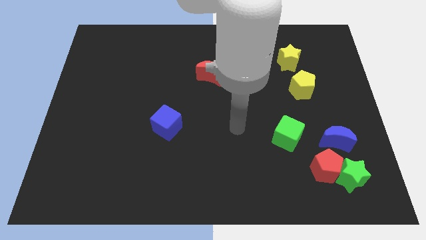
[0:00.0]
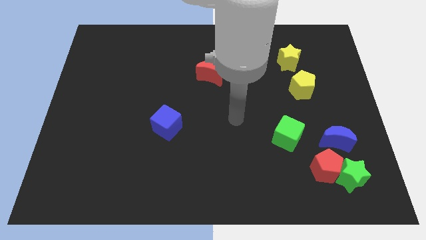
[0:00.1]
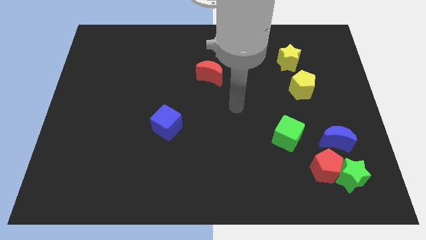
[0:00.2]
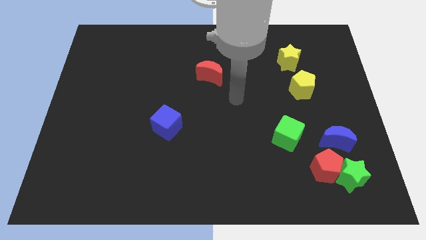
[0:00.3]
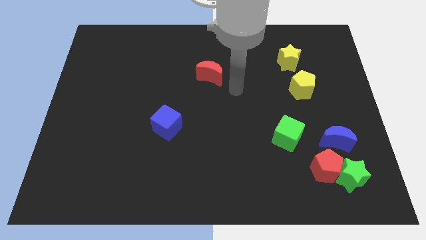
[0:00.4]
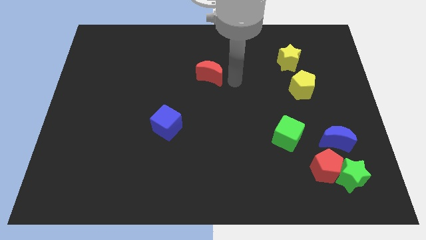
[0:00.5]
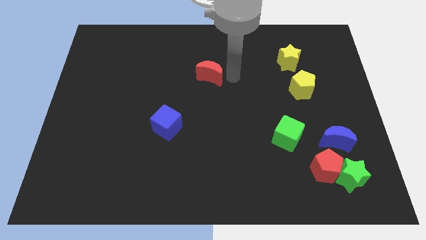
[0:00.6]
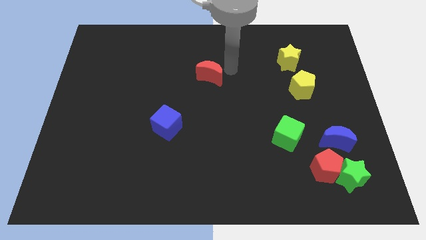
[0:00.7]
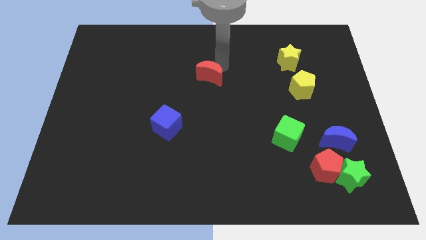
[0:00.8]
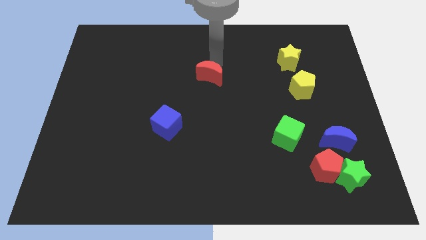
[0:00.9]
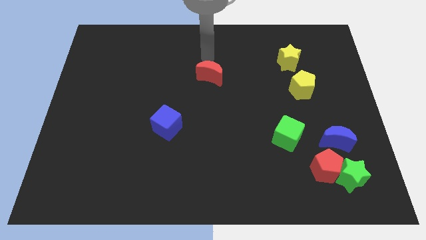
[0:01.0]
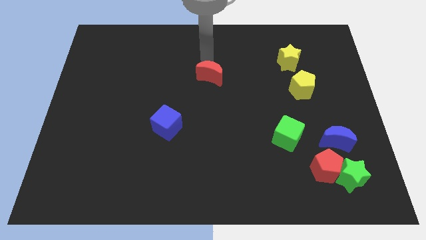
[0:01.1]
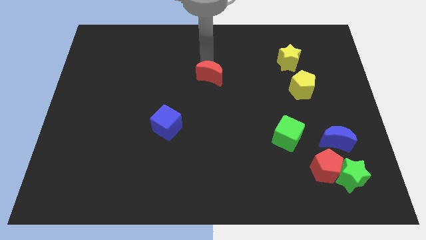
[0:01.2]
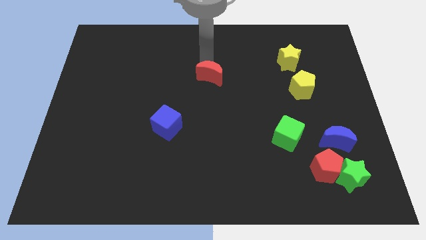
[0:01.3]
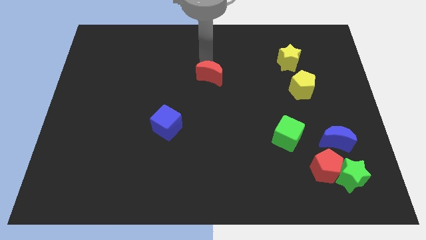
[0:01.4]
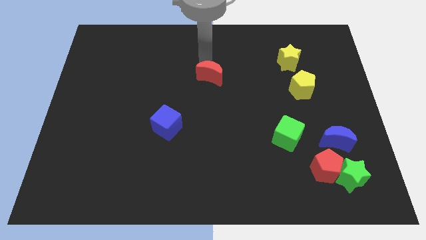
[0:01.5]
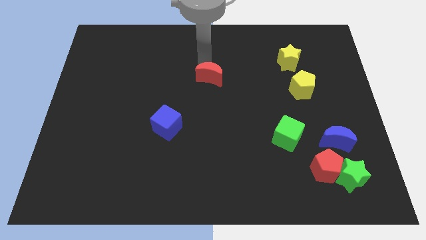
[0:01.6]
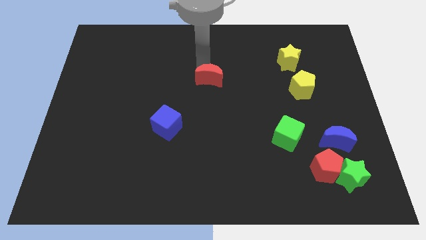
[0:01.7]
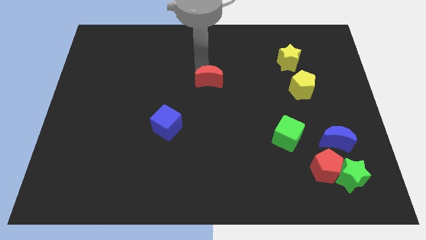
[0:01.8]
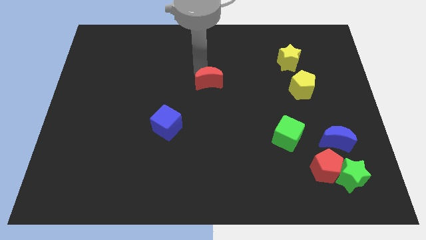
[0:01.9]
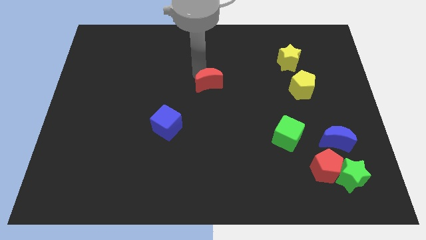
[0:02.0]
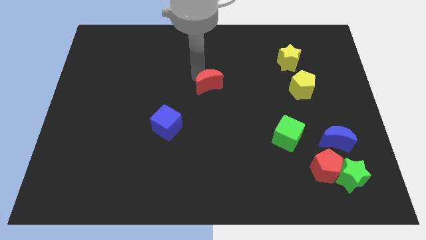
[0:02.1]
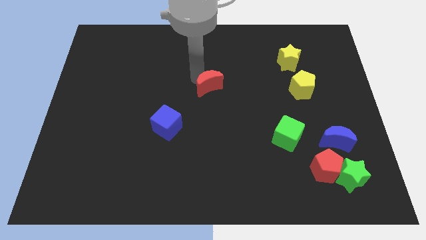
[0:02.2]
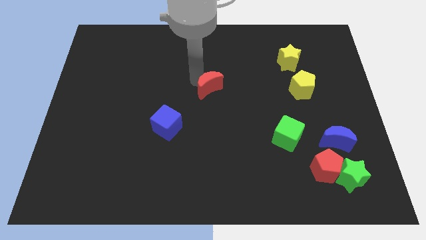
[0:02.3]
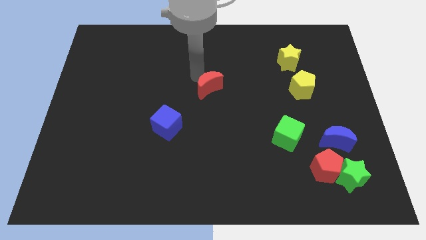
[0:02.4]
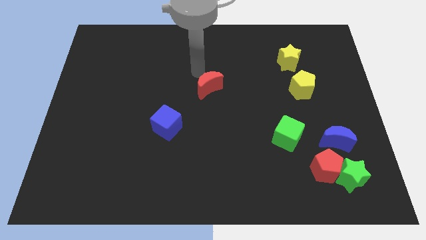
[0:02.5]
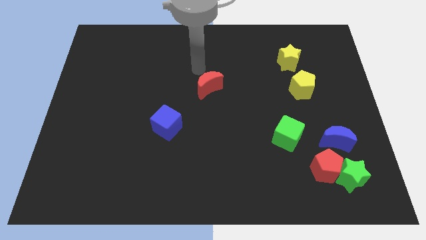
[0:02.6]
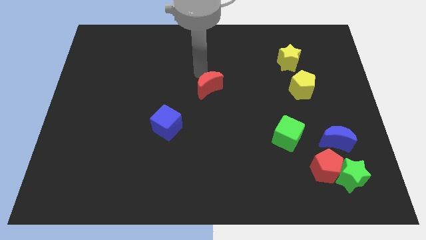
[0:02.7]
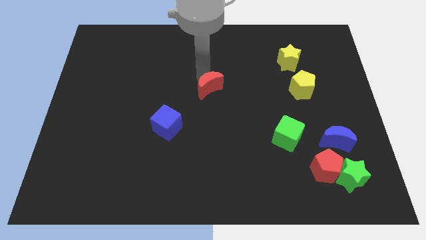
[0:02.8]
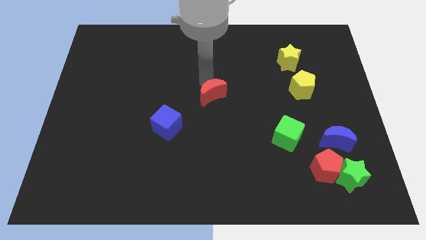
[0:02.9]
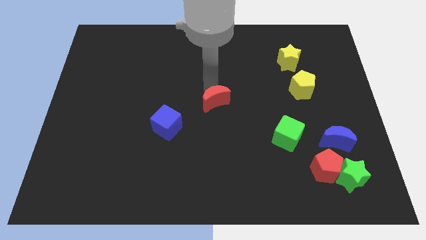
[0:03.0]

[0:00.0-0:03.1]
slightly move the red moon downwards

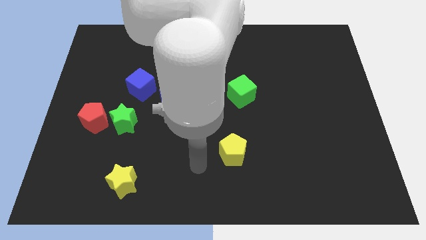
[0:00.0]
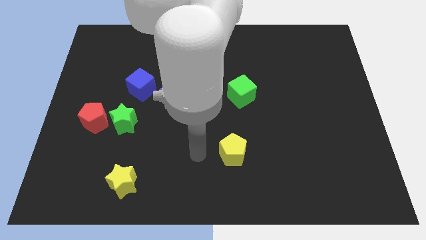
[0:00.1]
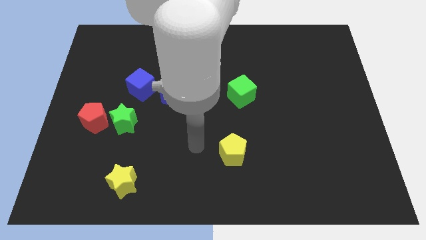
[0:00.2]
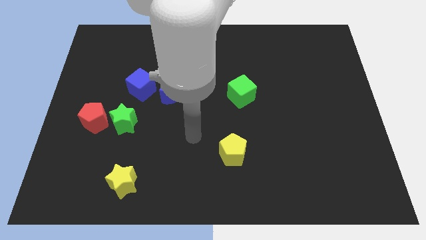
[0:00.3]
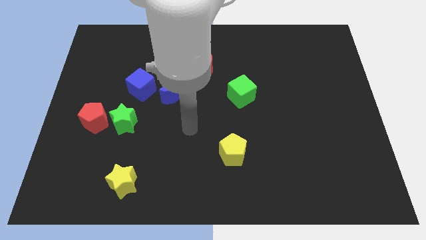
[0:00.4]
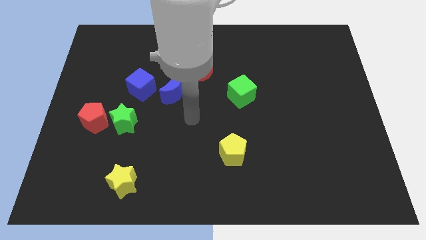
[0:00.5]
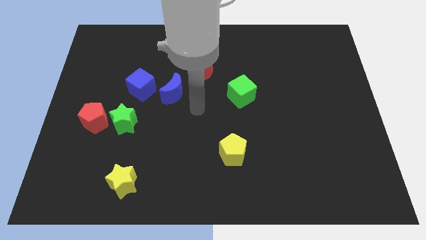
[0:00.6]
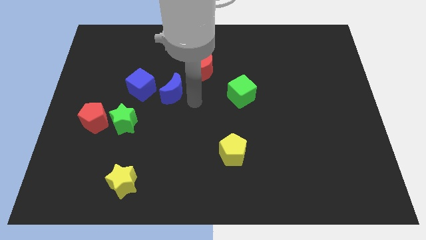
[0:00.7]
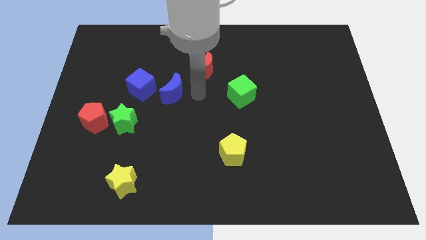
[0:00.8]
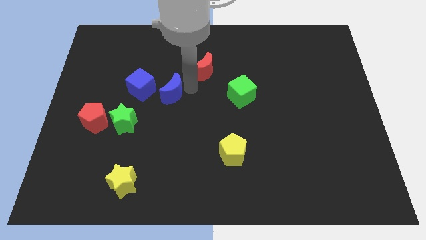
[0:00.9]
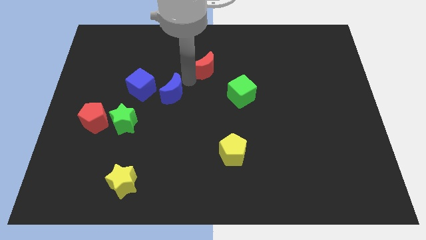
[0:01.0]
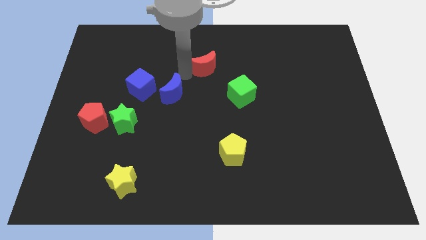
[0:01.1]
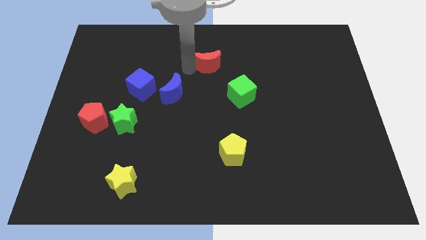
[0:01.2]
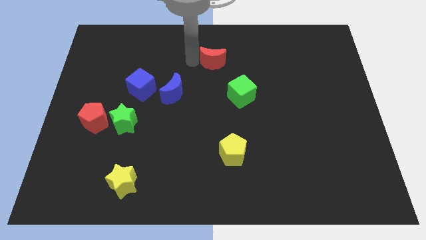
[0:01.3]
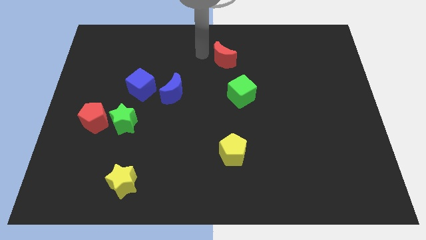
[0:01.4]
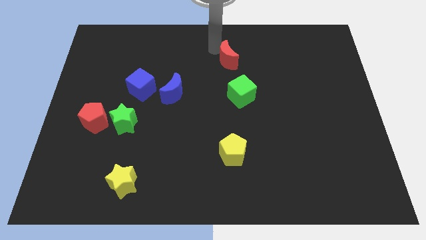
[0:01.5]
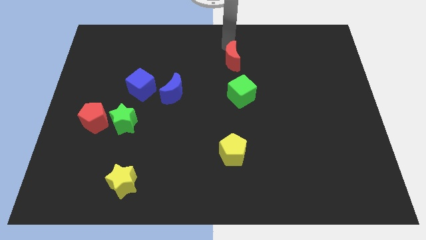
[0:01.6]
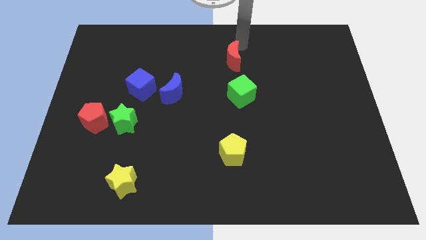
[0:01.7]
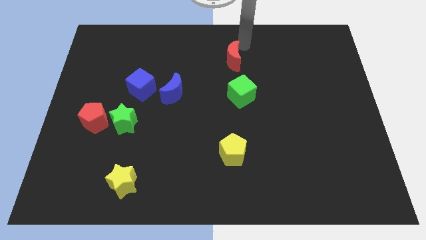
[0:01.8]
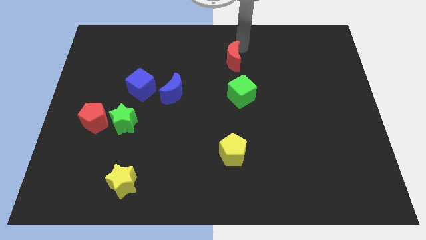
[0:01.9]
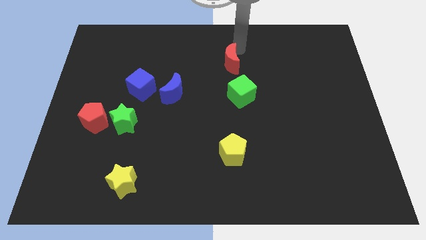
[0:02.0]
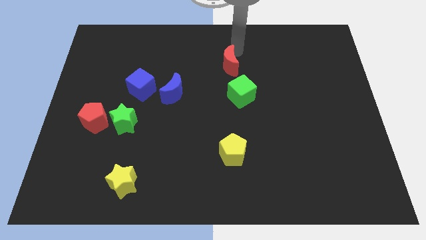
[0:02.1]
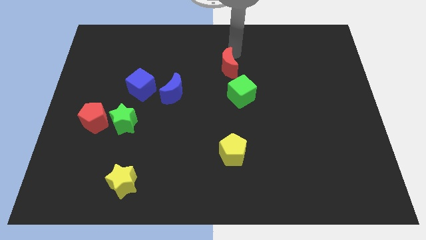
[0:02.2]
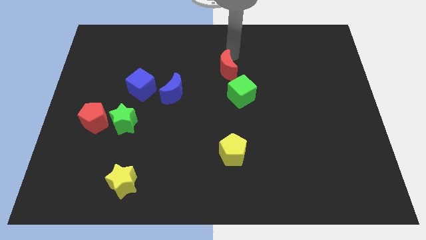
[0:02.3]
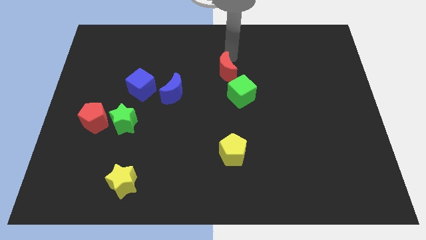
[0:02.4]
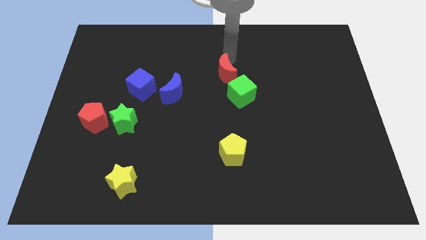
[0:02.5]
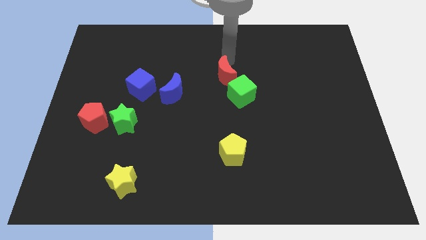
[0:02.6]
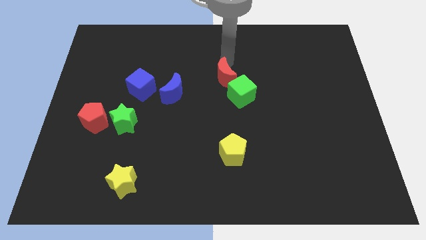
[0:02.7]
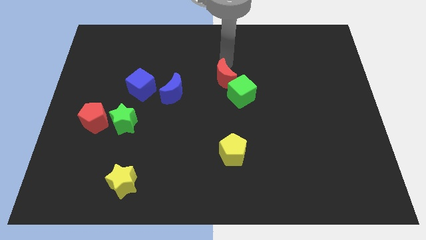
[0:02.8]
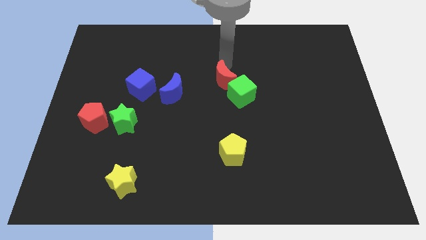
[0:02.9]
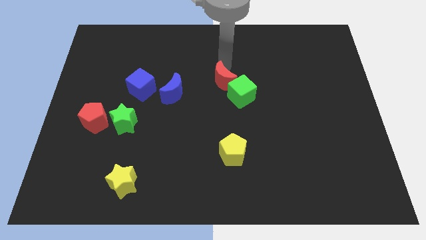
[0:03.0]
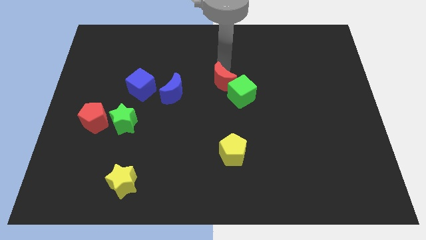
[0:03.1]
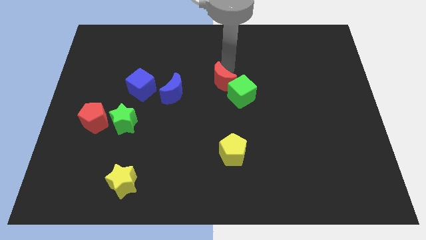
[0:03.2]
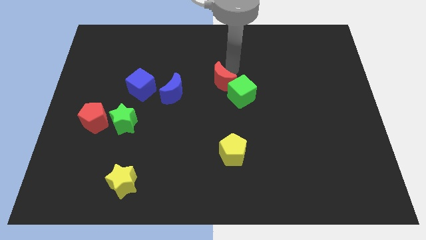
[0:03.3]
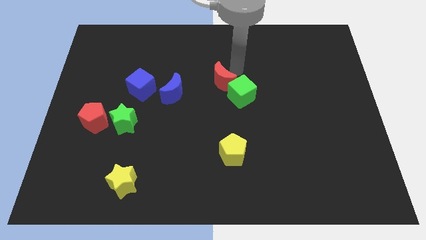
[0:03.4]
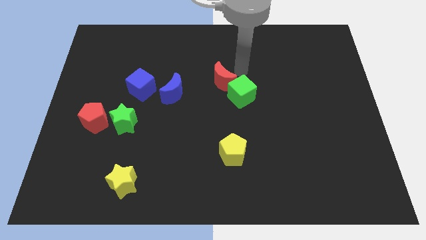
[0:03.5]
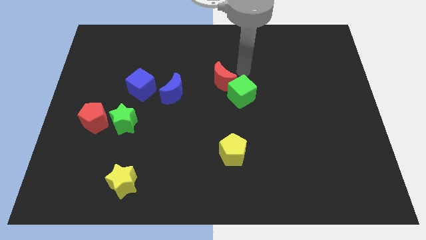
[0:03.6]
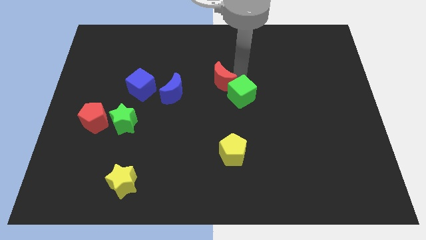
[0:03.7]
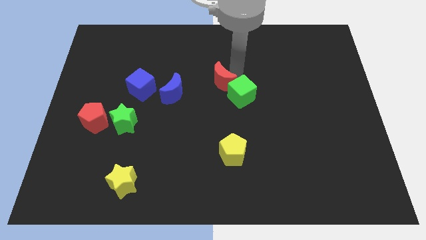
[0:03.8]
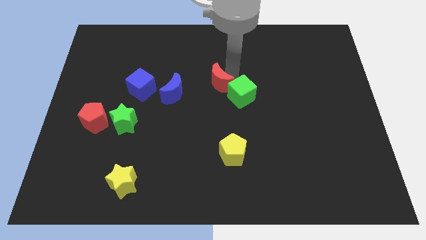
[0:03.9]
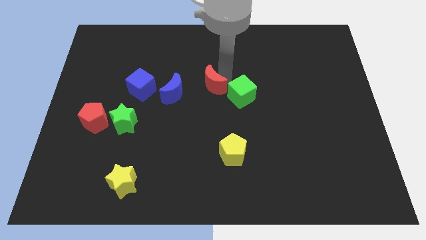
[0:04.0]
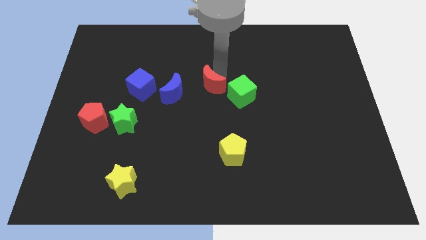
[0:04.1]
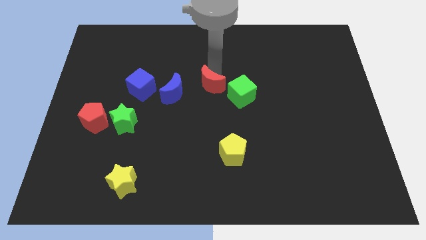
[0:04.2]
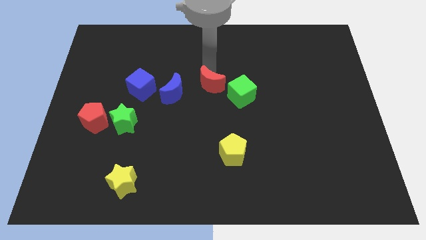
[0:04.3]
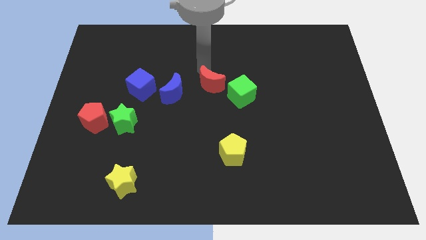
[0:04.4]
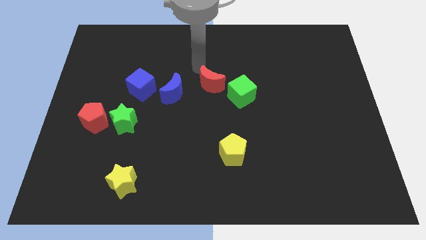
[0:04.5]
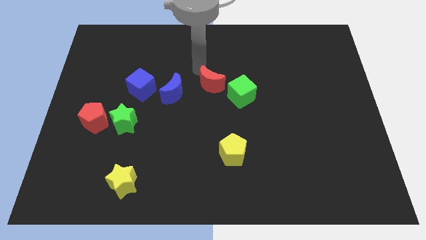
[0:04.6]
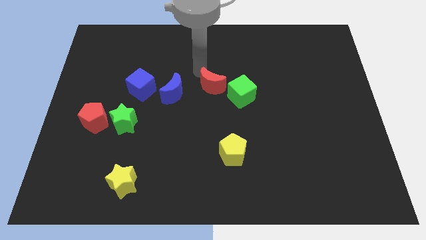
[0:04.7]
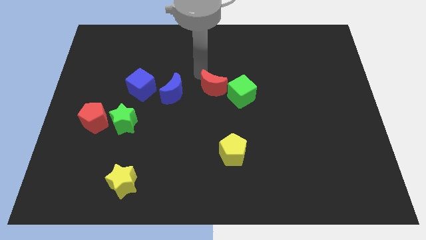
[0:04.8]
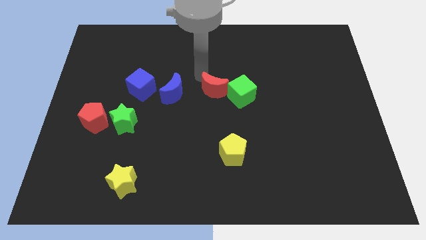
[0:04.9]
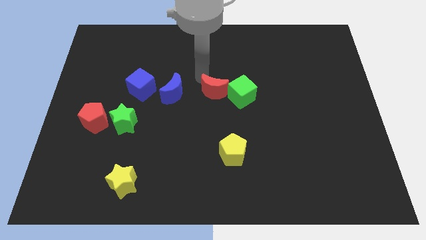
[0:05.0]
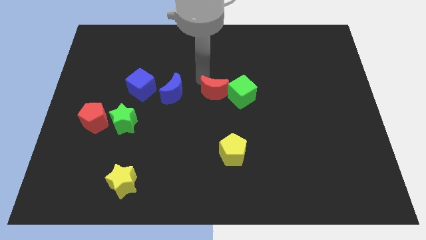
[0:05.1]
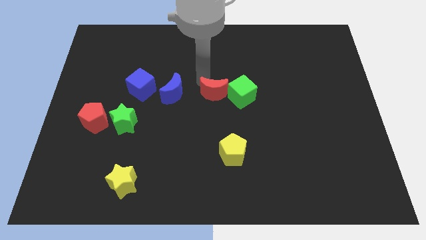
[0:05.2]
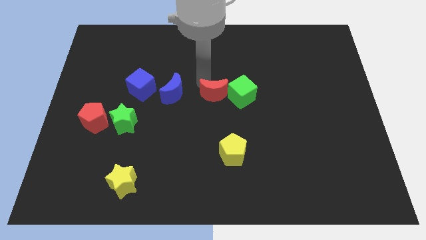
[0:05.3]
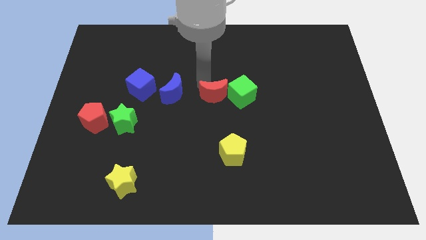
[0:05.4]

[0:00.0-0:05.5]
move the red moon diagonally down and to the right somewhat
